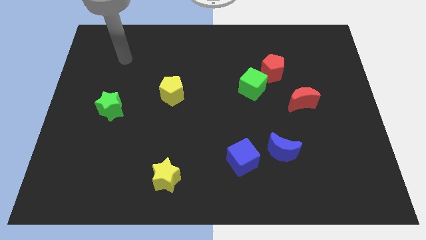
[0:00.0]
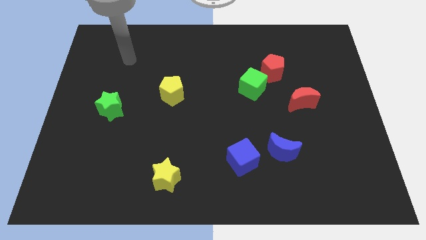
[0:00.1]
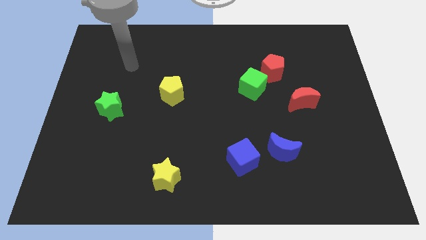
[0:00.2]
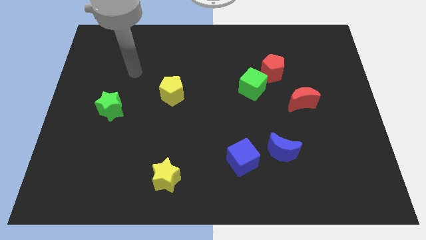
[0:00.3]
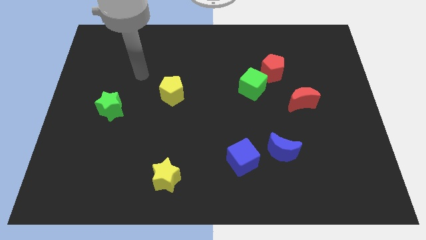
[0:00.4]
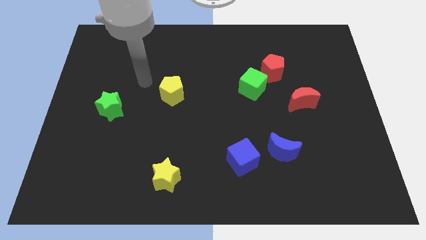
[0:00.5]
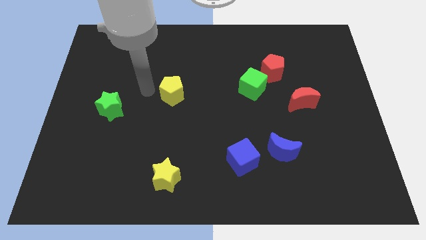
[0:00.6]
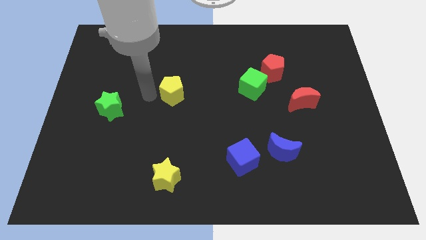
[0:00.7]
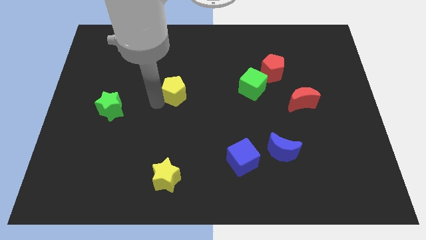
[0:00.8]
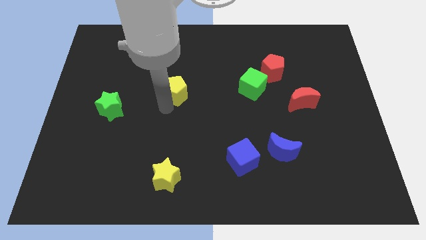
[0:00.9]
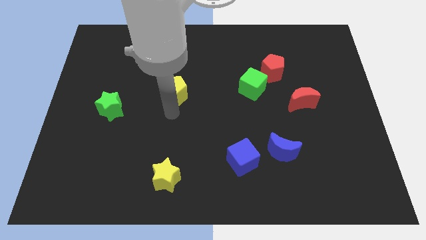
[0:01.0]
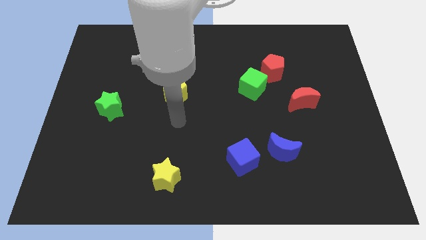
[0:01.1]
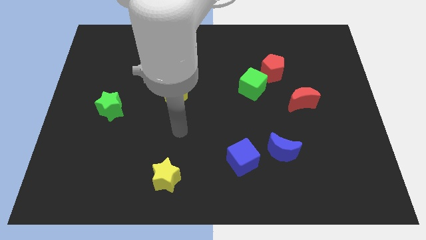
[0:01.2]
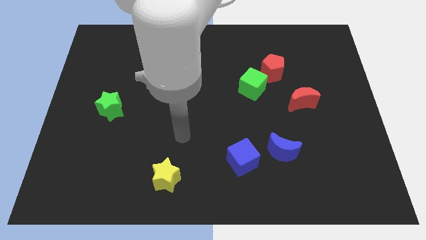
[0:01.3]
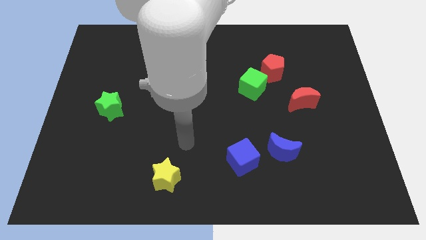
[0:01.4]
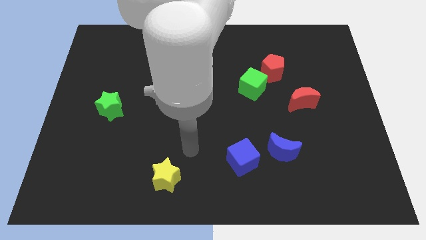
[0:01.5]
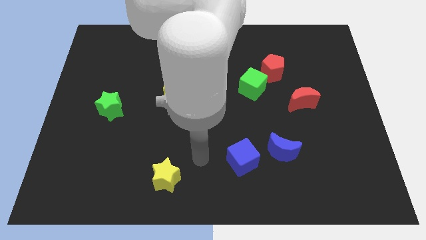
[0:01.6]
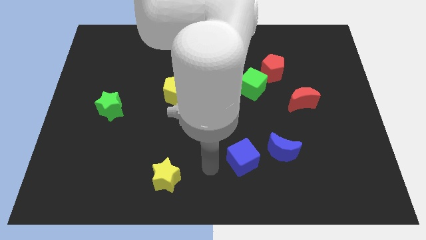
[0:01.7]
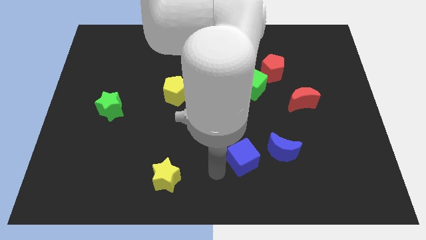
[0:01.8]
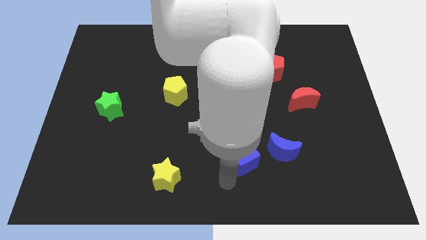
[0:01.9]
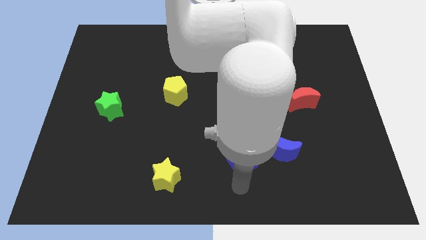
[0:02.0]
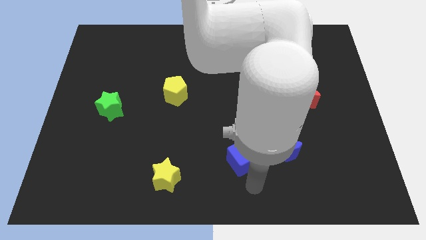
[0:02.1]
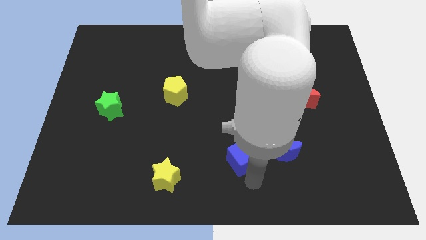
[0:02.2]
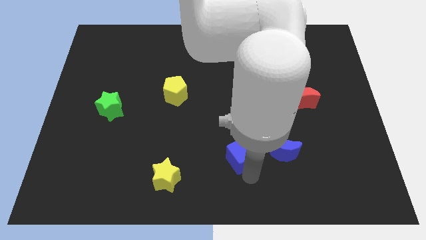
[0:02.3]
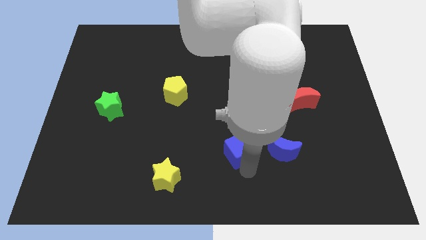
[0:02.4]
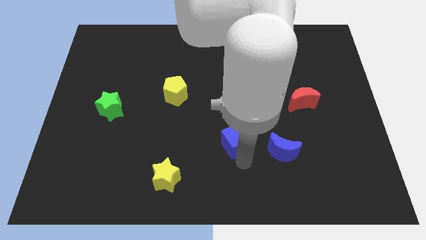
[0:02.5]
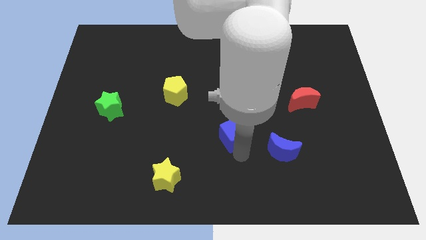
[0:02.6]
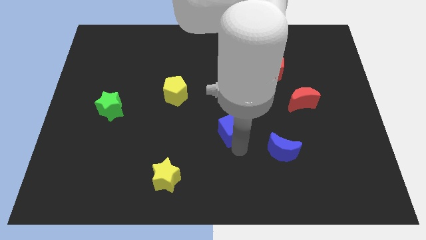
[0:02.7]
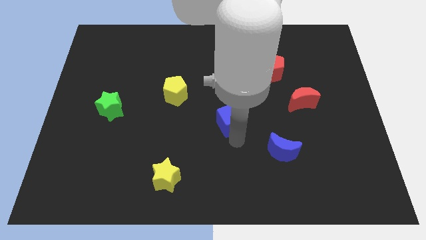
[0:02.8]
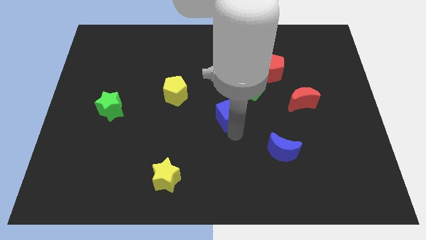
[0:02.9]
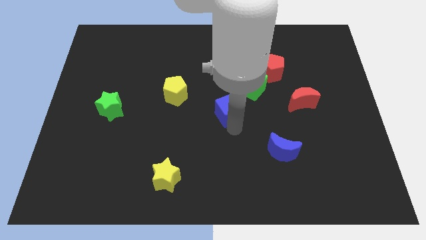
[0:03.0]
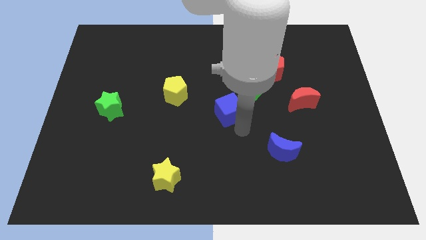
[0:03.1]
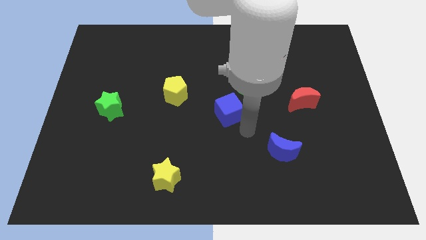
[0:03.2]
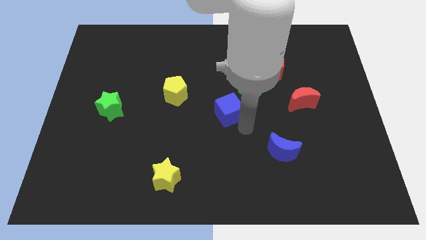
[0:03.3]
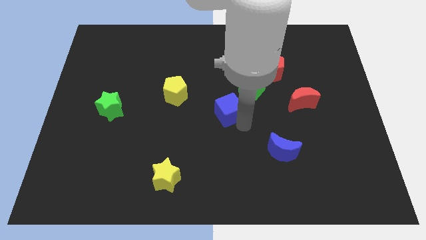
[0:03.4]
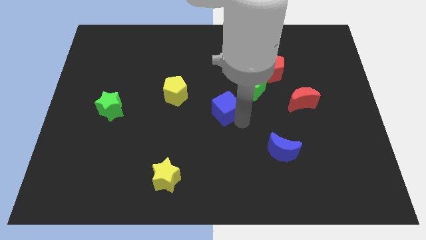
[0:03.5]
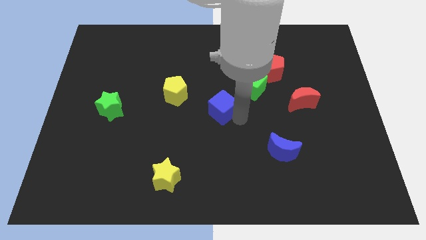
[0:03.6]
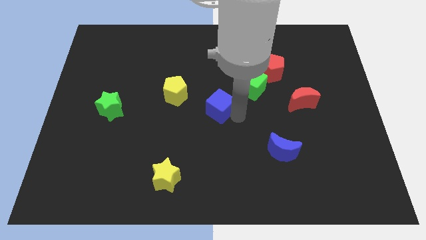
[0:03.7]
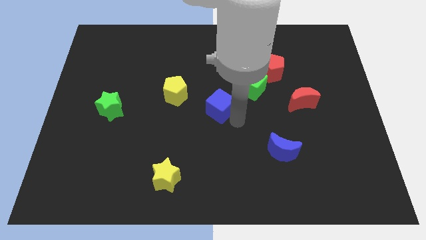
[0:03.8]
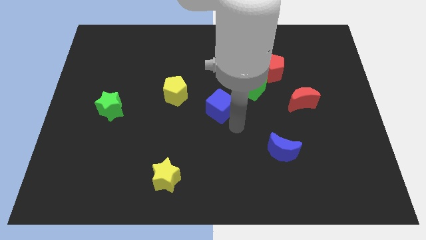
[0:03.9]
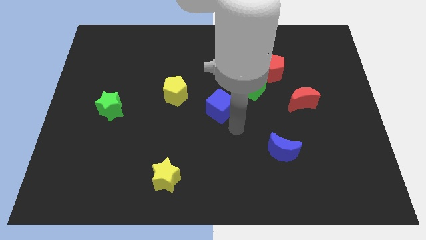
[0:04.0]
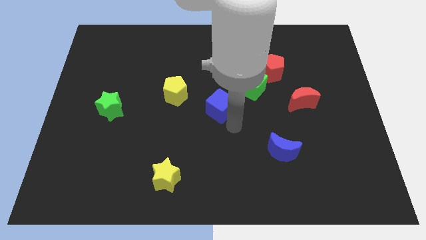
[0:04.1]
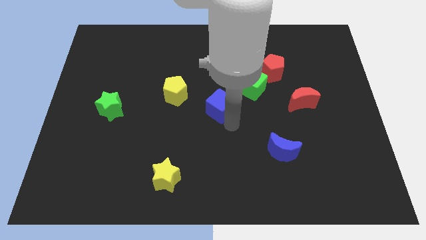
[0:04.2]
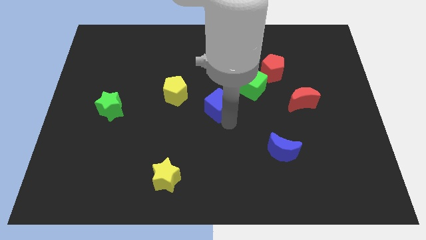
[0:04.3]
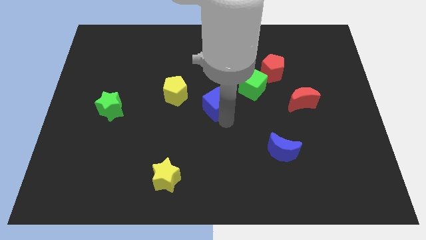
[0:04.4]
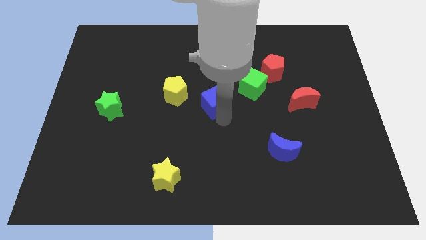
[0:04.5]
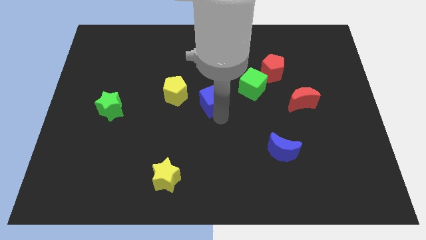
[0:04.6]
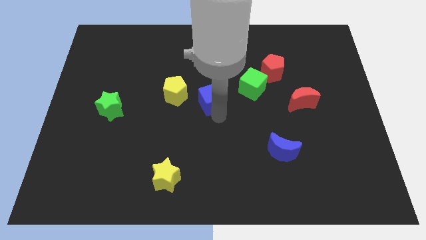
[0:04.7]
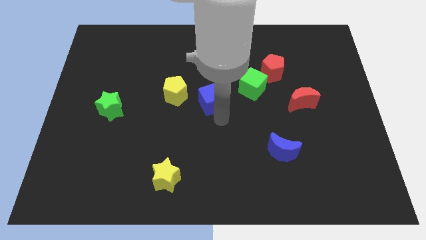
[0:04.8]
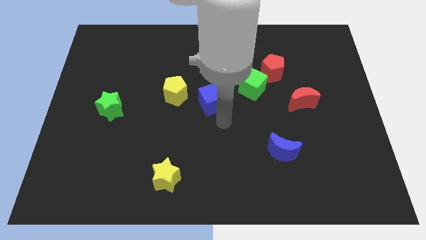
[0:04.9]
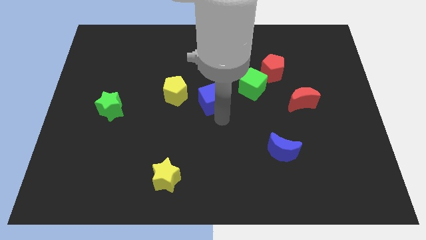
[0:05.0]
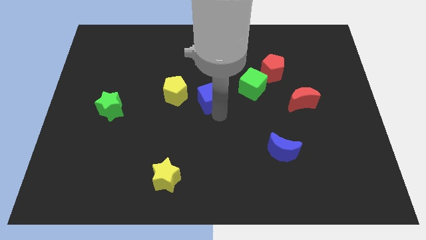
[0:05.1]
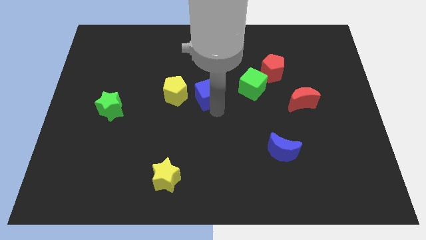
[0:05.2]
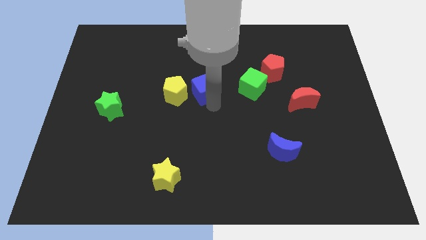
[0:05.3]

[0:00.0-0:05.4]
push the blue cube to the top right side of the yellow pentagon

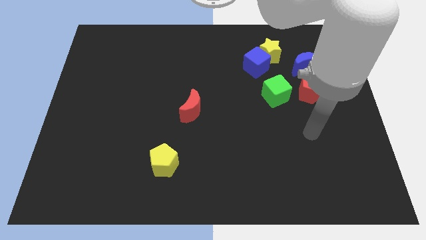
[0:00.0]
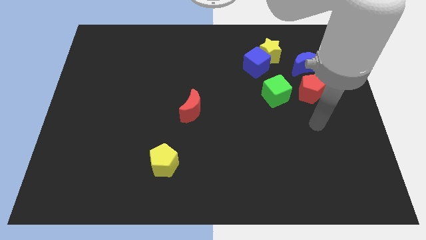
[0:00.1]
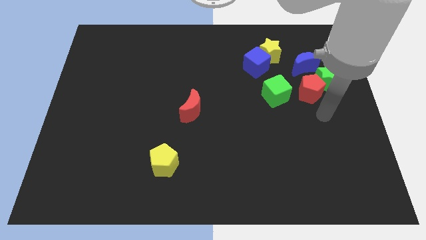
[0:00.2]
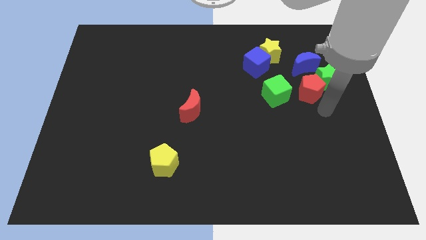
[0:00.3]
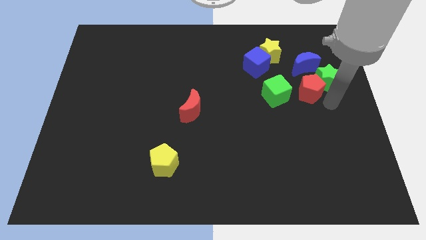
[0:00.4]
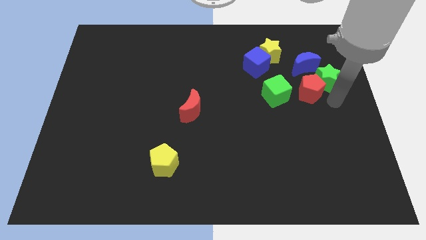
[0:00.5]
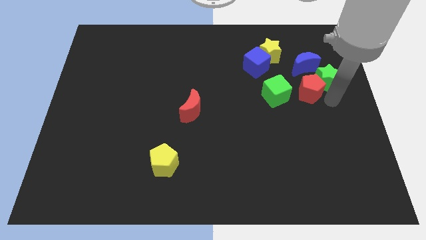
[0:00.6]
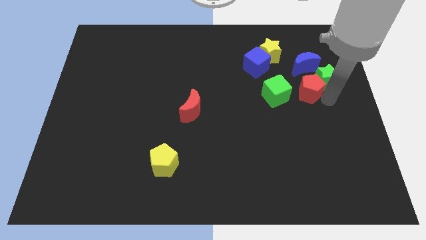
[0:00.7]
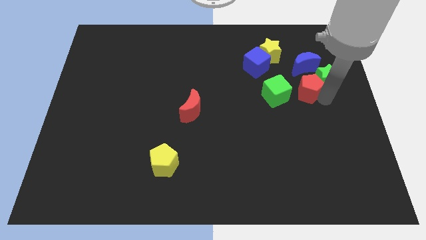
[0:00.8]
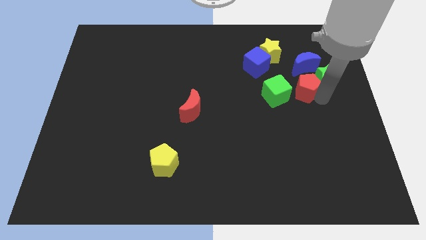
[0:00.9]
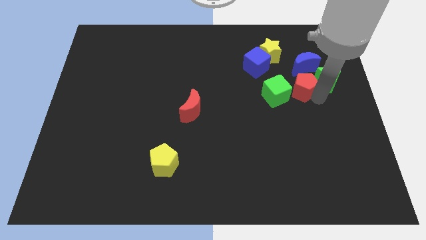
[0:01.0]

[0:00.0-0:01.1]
slide the red pentagon diagonally down and to the left of the blue moon
